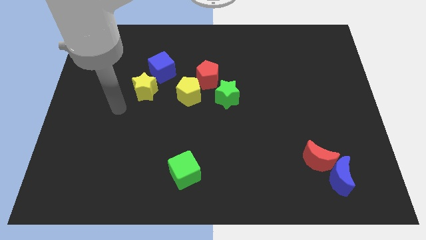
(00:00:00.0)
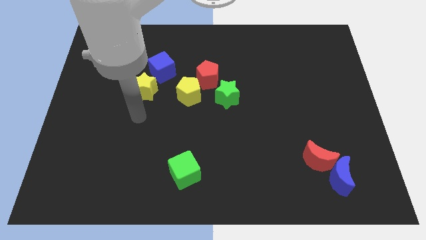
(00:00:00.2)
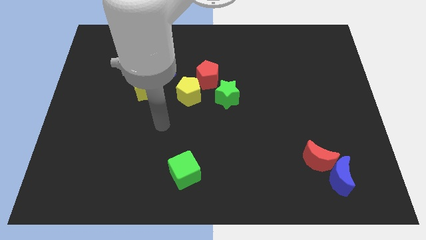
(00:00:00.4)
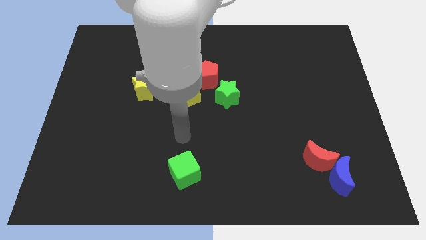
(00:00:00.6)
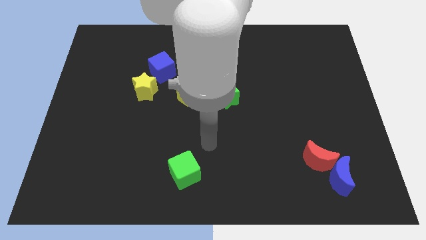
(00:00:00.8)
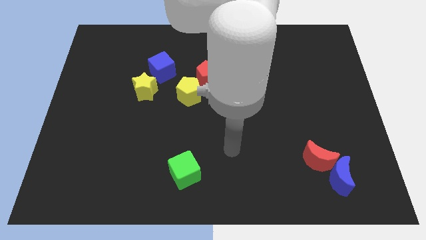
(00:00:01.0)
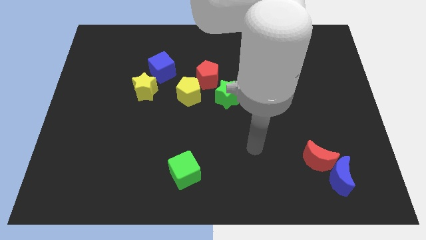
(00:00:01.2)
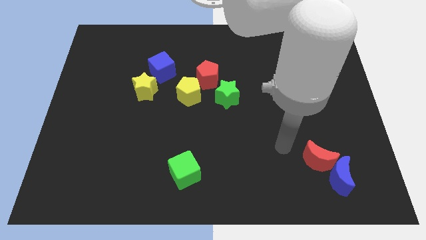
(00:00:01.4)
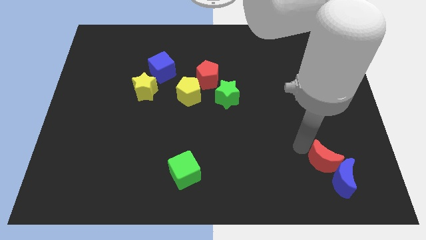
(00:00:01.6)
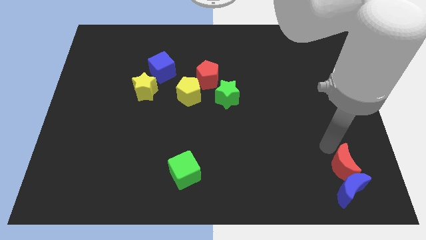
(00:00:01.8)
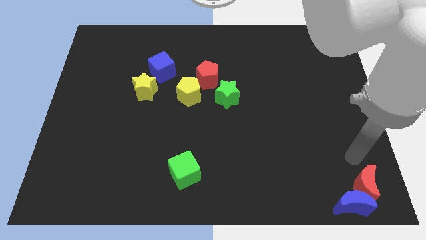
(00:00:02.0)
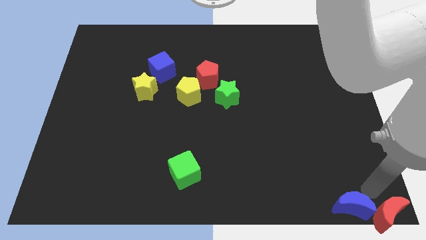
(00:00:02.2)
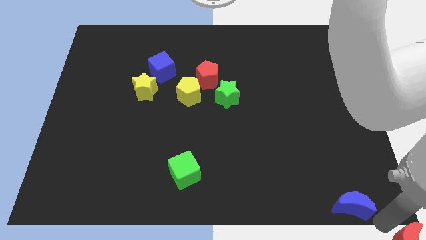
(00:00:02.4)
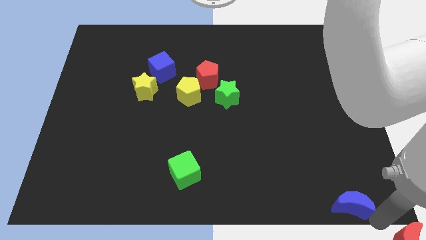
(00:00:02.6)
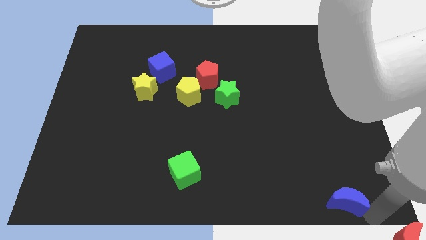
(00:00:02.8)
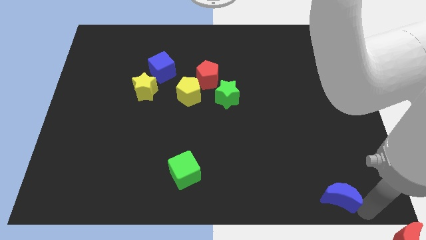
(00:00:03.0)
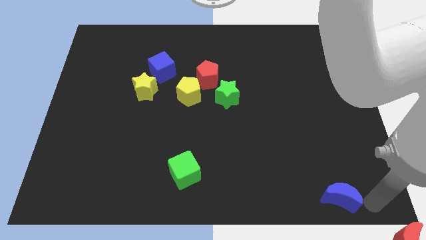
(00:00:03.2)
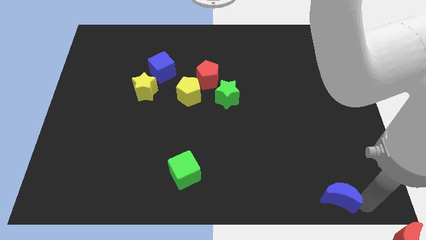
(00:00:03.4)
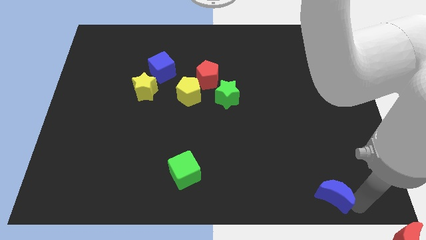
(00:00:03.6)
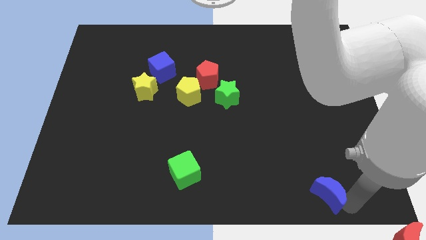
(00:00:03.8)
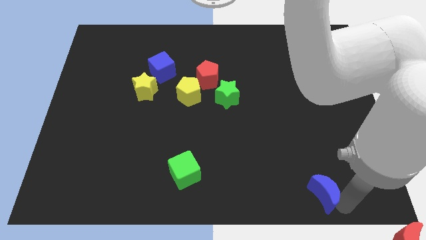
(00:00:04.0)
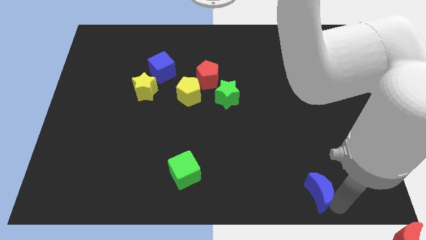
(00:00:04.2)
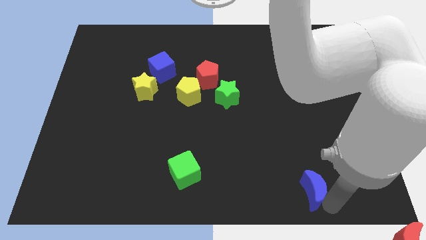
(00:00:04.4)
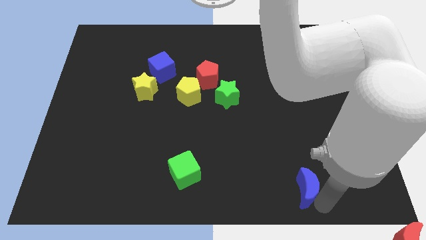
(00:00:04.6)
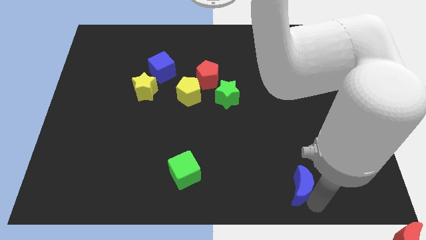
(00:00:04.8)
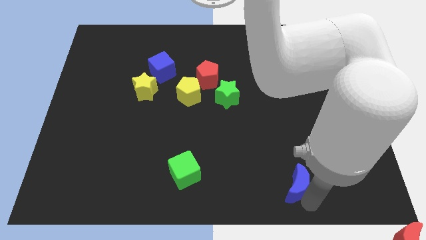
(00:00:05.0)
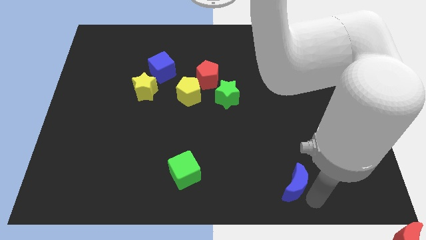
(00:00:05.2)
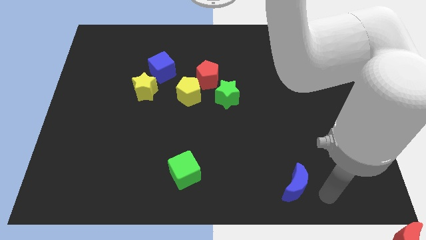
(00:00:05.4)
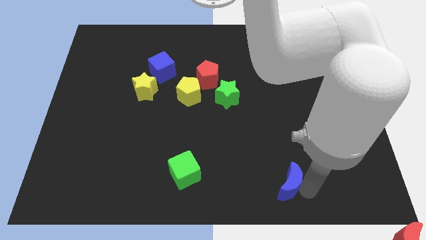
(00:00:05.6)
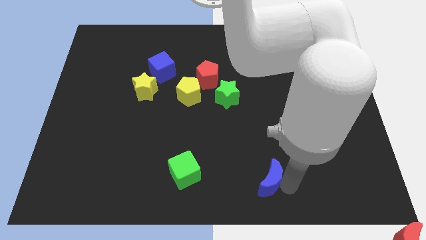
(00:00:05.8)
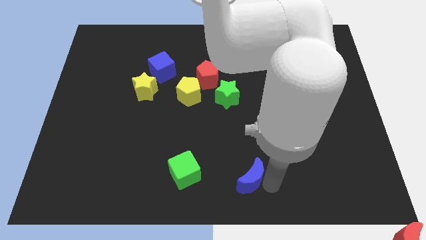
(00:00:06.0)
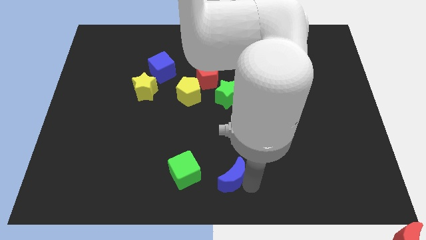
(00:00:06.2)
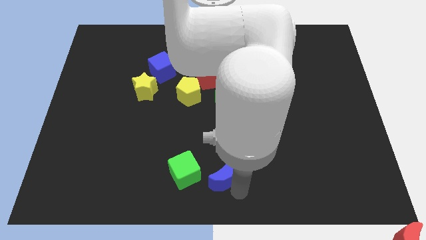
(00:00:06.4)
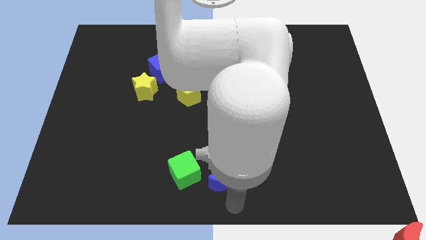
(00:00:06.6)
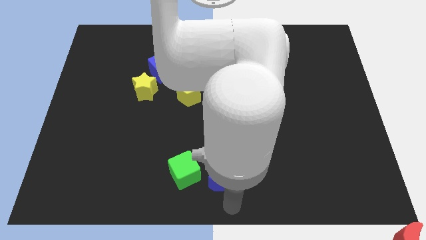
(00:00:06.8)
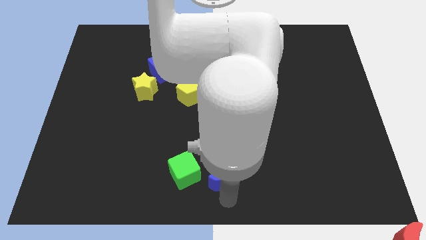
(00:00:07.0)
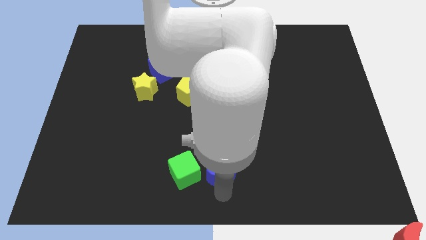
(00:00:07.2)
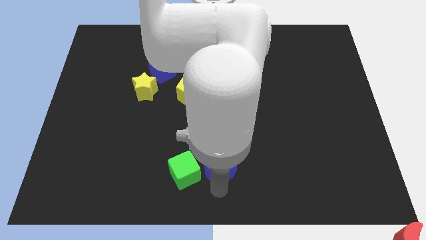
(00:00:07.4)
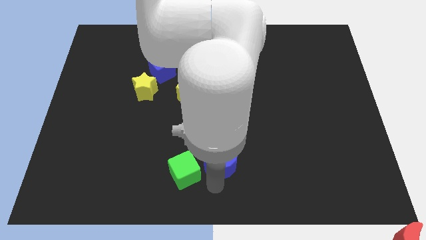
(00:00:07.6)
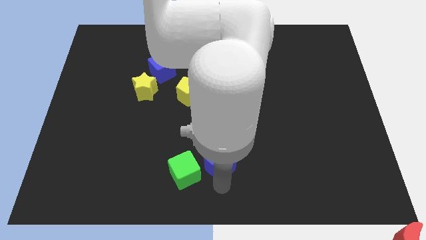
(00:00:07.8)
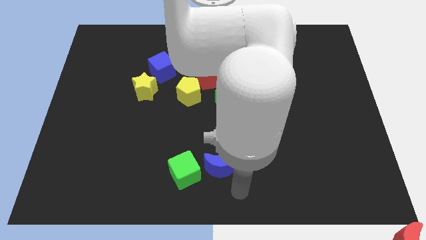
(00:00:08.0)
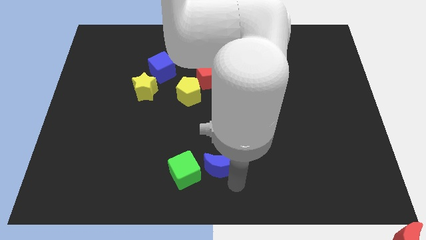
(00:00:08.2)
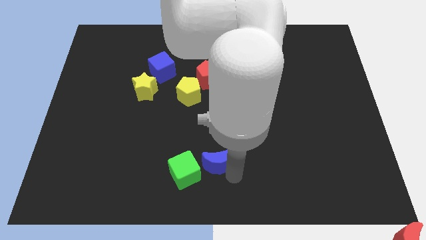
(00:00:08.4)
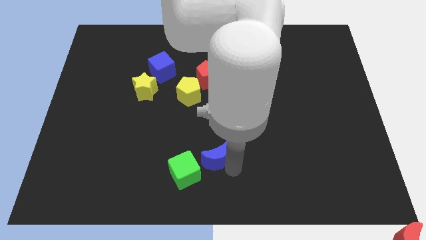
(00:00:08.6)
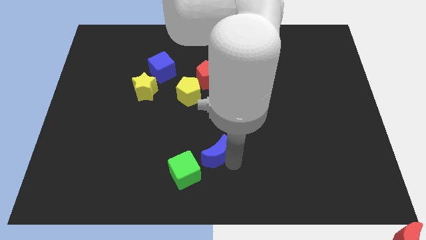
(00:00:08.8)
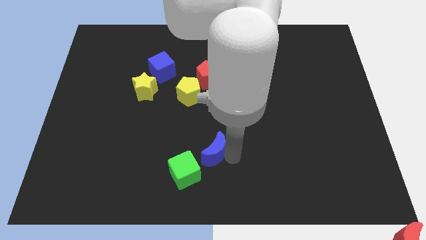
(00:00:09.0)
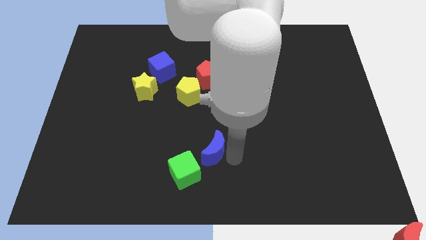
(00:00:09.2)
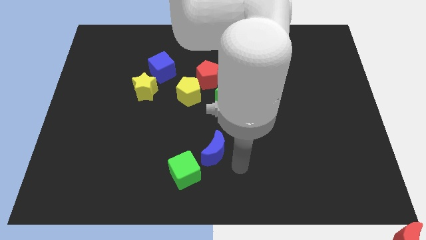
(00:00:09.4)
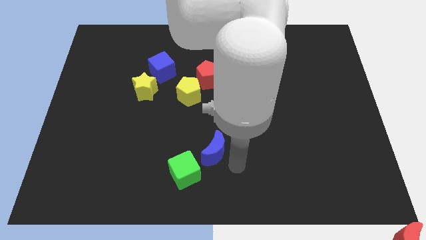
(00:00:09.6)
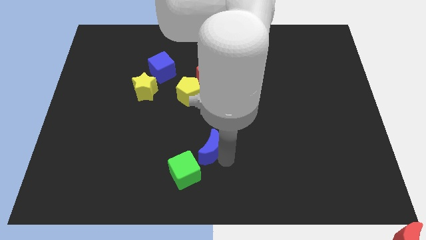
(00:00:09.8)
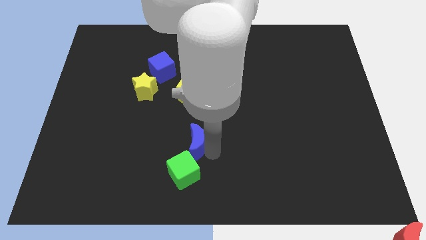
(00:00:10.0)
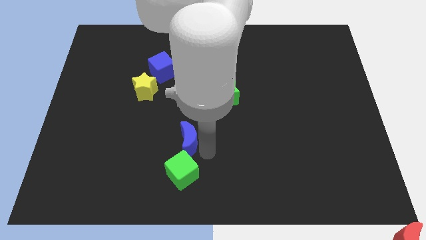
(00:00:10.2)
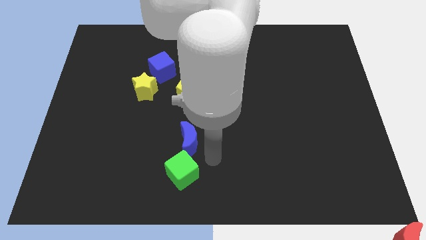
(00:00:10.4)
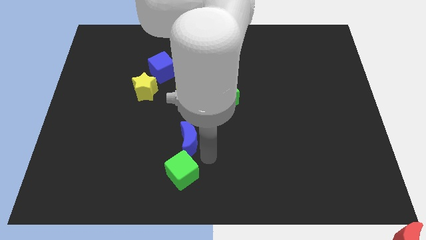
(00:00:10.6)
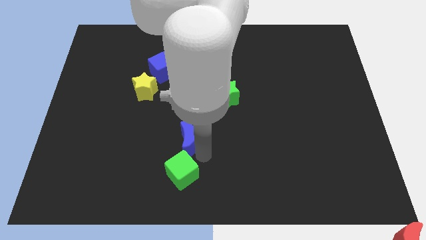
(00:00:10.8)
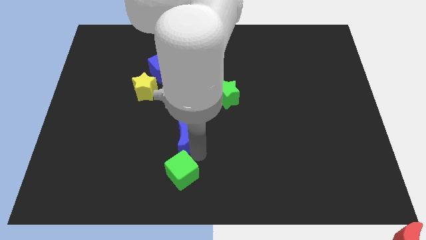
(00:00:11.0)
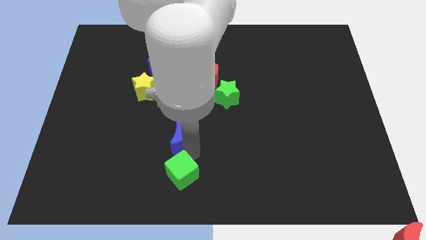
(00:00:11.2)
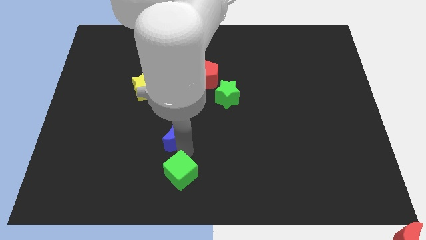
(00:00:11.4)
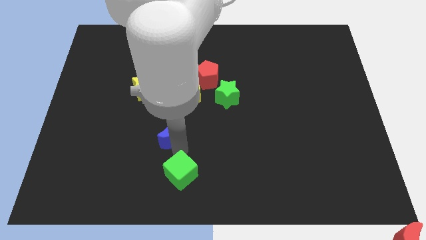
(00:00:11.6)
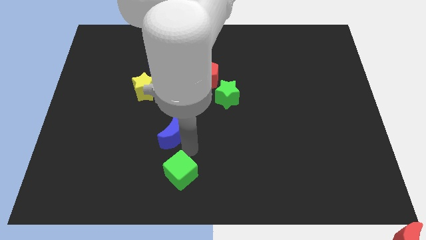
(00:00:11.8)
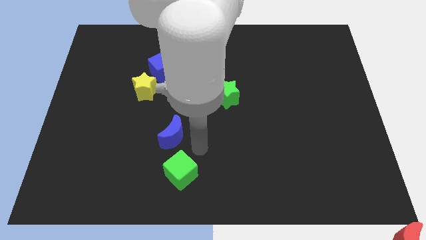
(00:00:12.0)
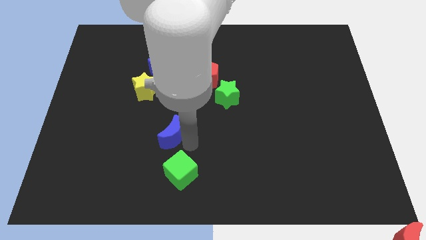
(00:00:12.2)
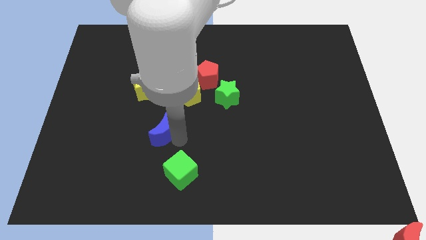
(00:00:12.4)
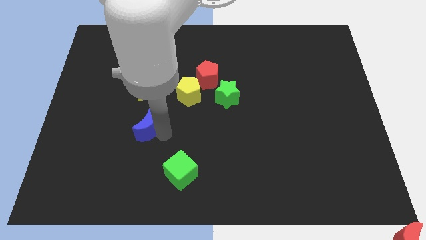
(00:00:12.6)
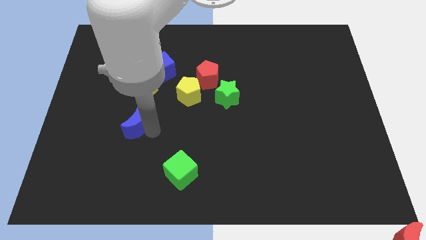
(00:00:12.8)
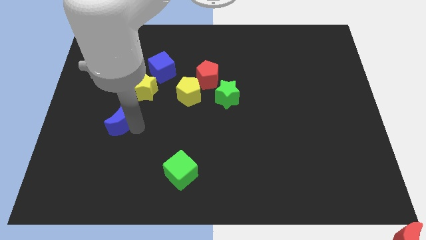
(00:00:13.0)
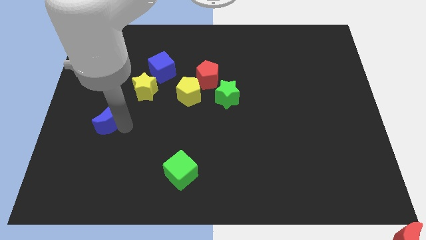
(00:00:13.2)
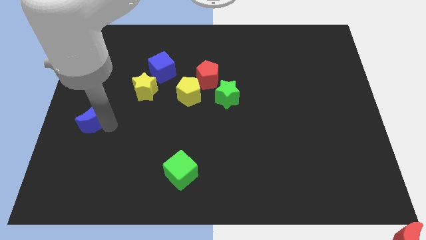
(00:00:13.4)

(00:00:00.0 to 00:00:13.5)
slide the blue moon to the left side of the board

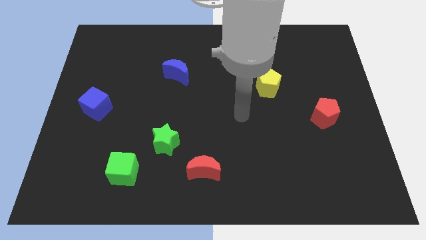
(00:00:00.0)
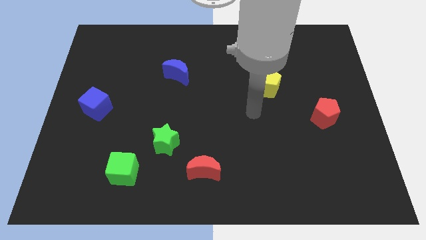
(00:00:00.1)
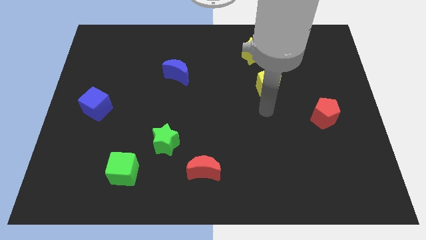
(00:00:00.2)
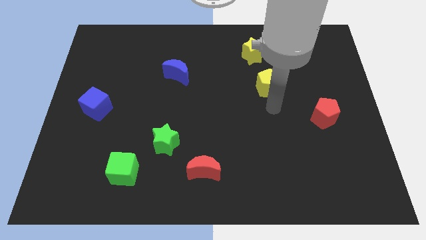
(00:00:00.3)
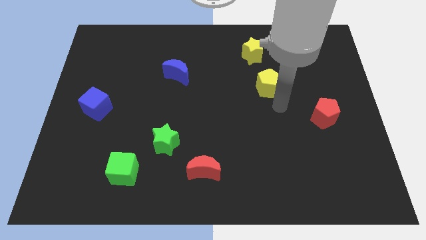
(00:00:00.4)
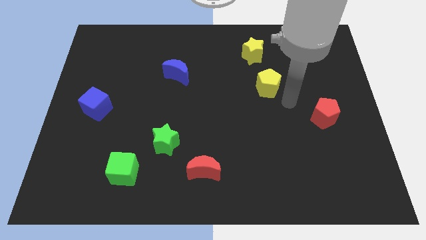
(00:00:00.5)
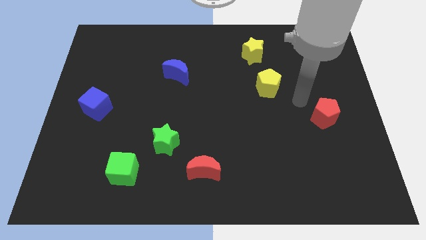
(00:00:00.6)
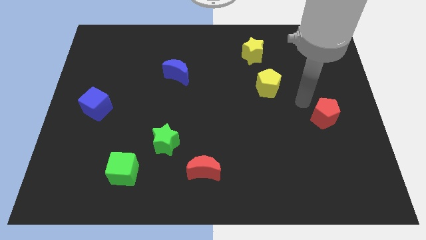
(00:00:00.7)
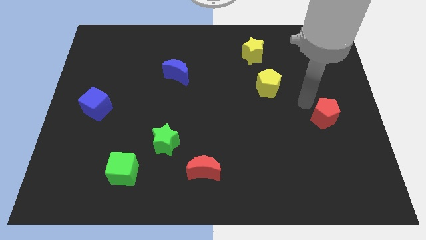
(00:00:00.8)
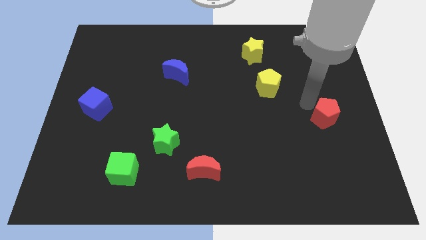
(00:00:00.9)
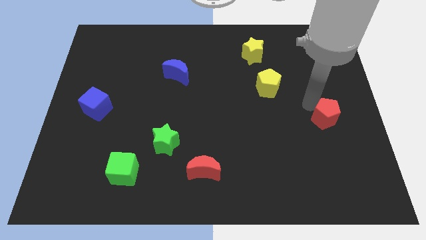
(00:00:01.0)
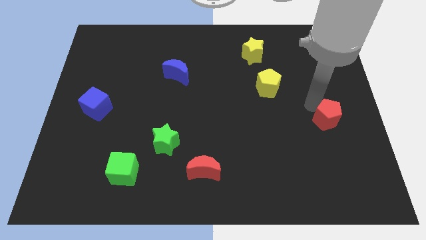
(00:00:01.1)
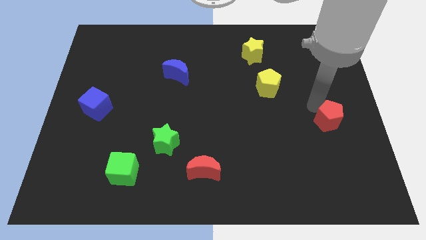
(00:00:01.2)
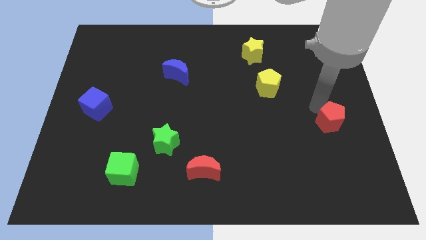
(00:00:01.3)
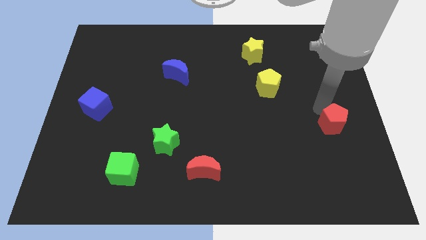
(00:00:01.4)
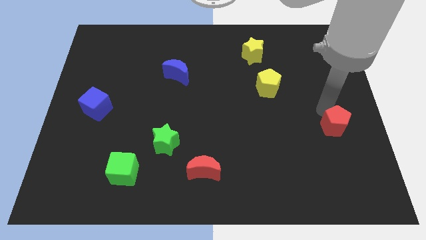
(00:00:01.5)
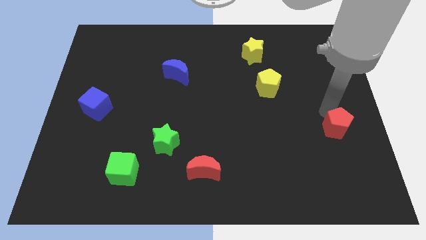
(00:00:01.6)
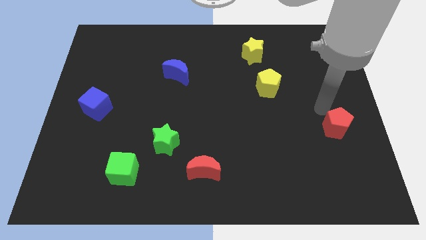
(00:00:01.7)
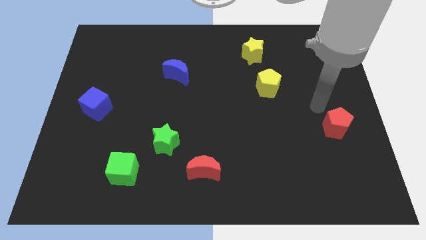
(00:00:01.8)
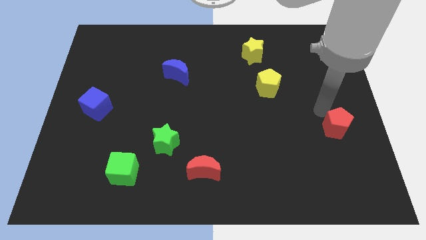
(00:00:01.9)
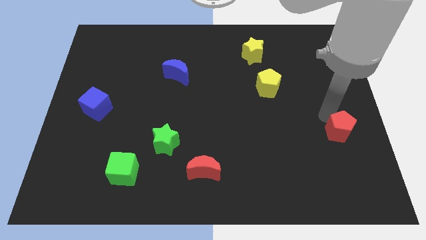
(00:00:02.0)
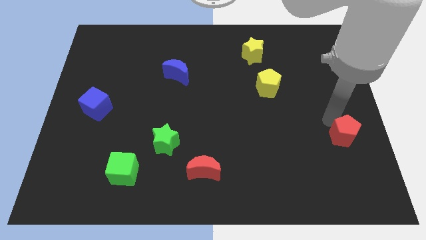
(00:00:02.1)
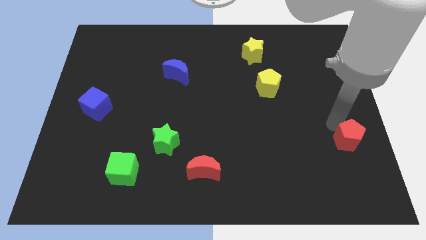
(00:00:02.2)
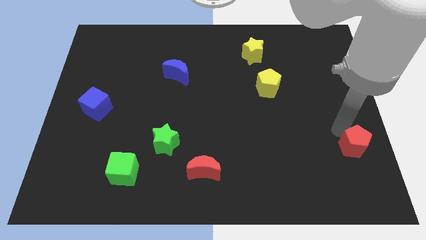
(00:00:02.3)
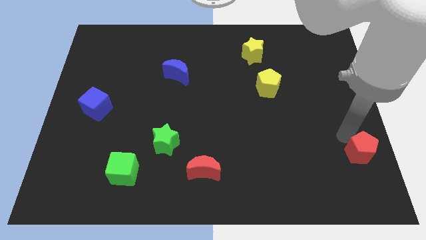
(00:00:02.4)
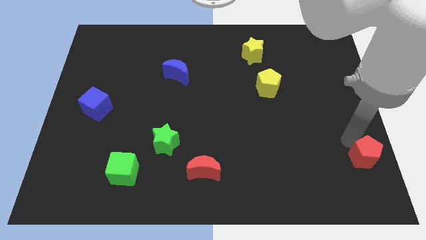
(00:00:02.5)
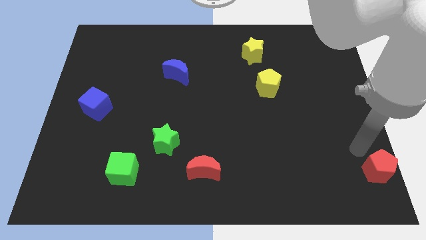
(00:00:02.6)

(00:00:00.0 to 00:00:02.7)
move the red pentagon to the lower right corner
